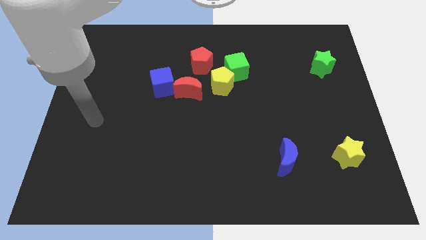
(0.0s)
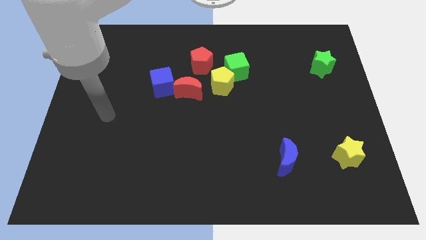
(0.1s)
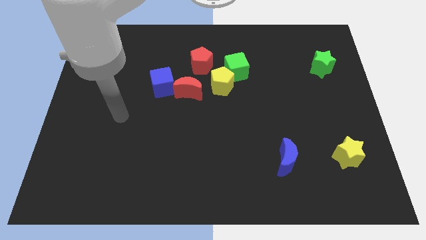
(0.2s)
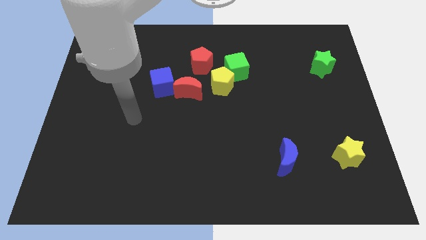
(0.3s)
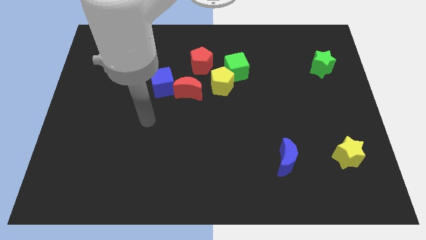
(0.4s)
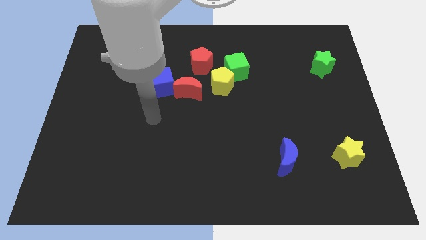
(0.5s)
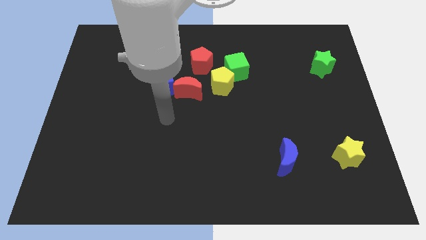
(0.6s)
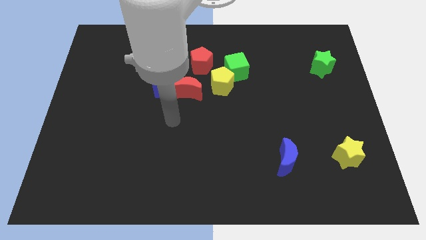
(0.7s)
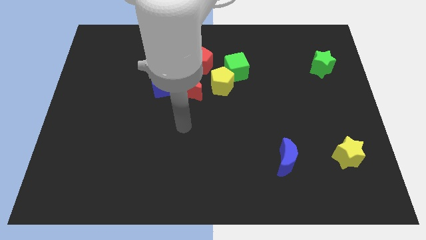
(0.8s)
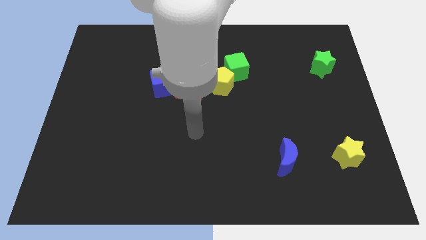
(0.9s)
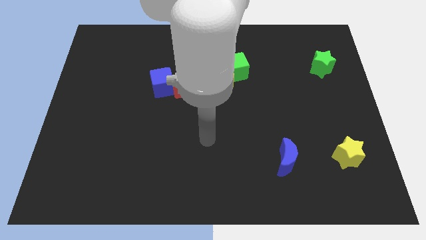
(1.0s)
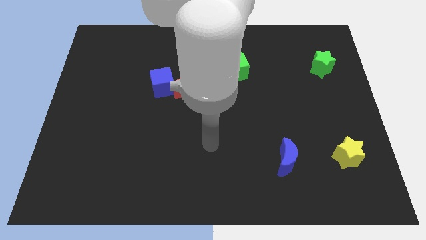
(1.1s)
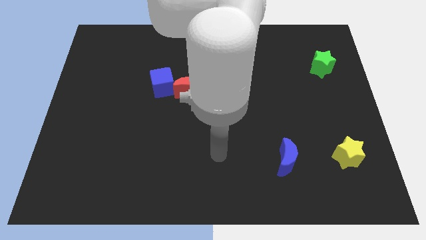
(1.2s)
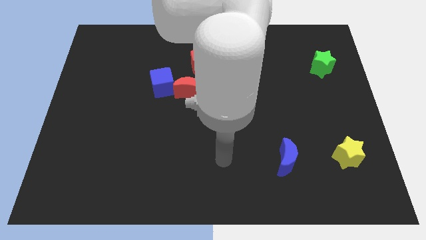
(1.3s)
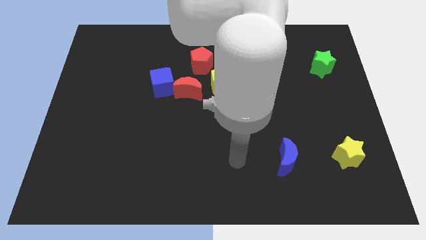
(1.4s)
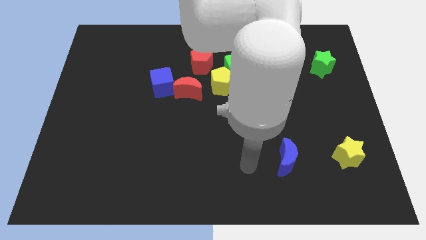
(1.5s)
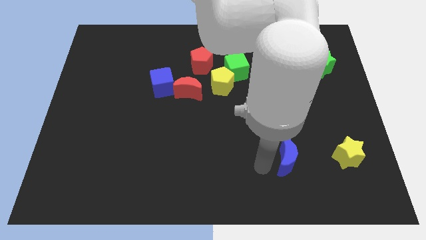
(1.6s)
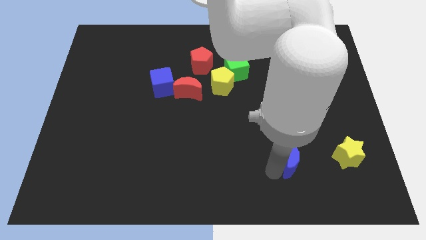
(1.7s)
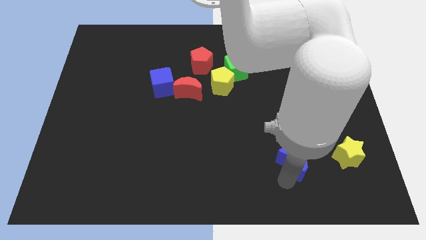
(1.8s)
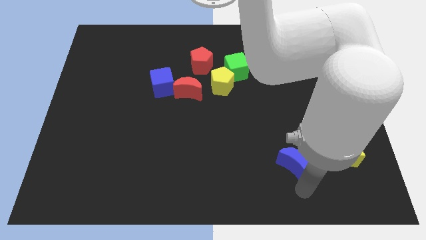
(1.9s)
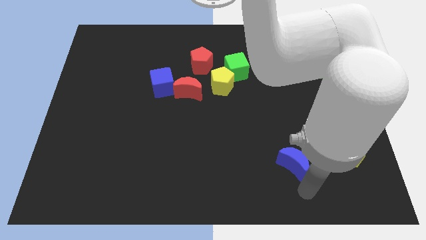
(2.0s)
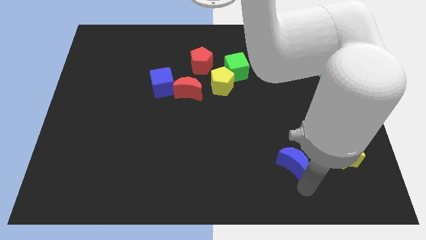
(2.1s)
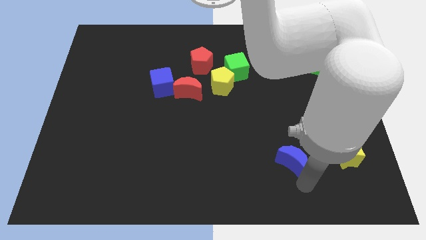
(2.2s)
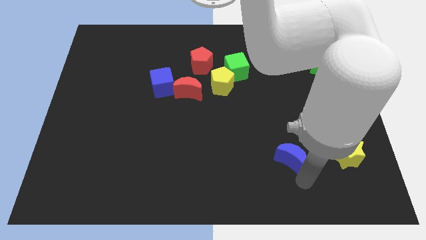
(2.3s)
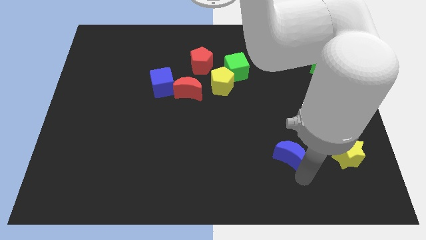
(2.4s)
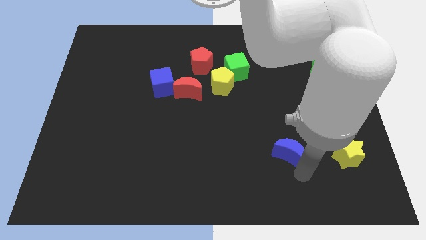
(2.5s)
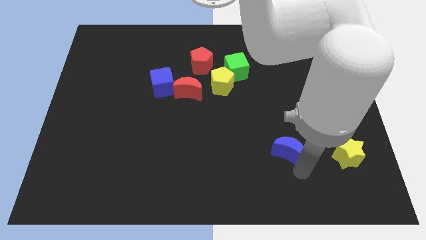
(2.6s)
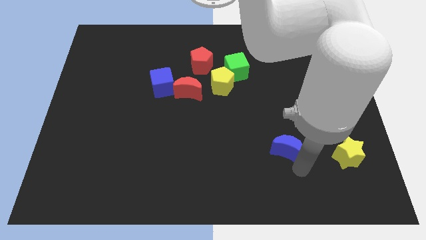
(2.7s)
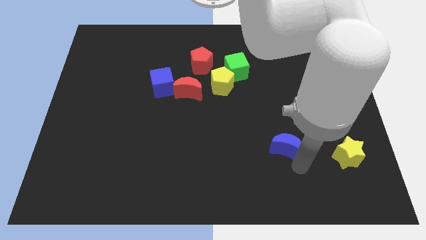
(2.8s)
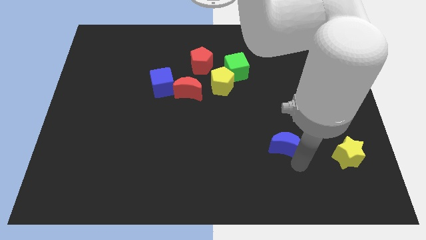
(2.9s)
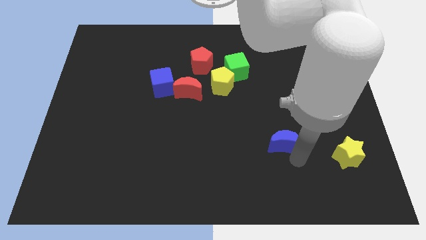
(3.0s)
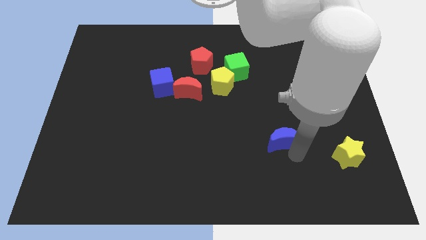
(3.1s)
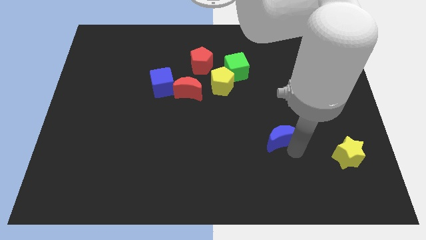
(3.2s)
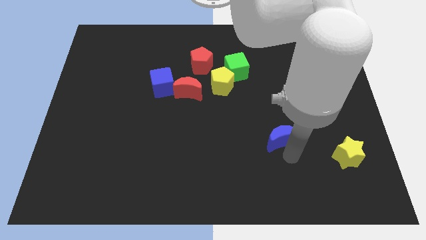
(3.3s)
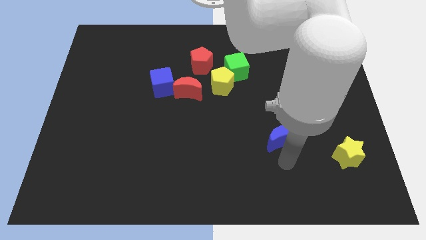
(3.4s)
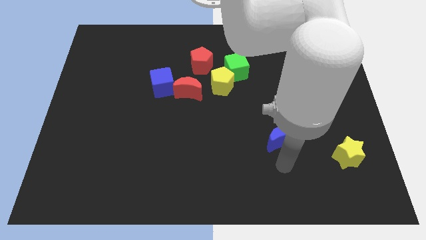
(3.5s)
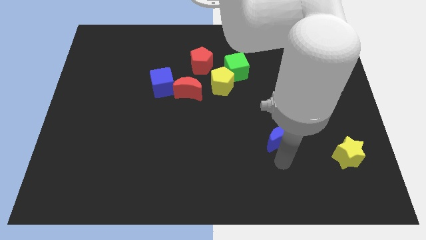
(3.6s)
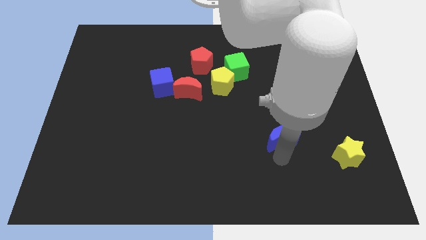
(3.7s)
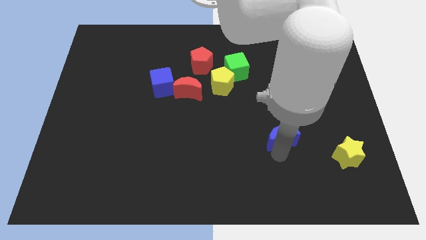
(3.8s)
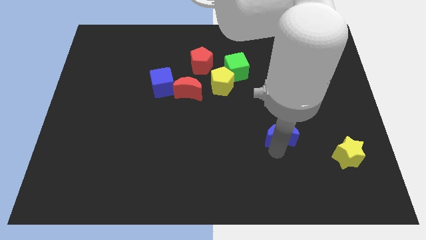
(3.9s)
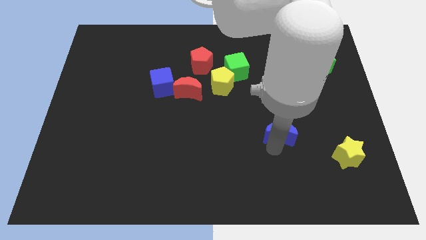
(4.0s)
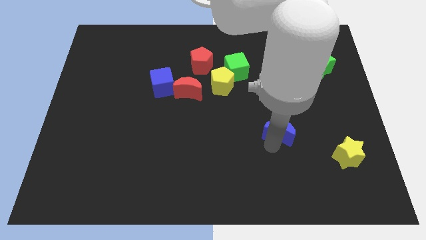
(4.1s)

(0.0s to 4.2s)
push the blue moon up a bit

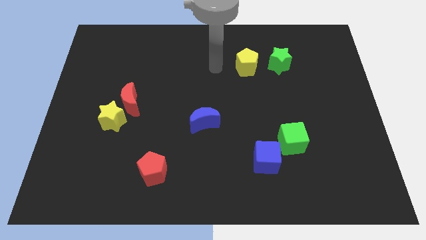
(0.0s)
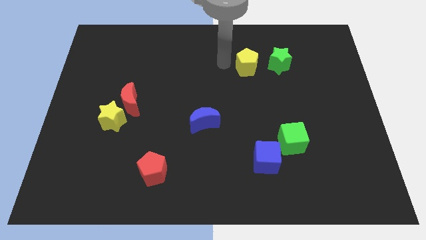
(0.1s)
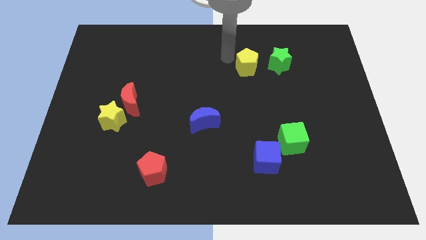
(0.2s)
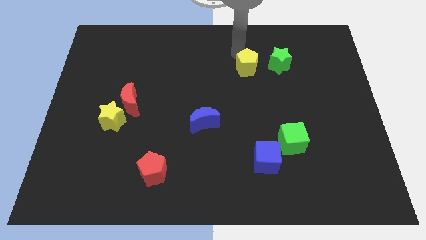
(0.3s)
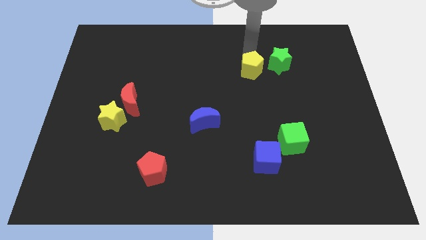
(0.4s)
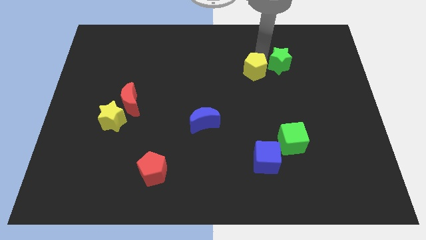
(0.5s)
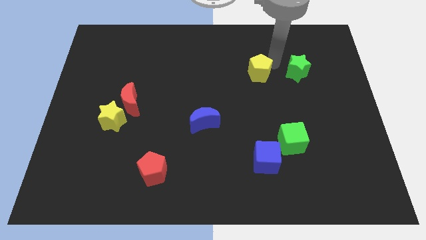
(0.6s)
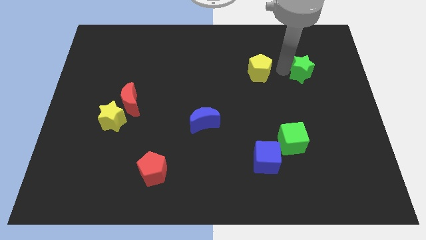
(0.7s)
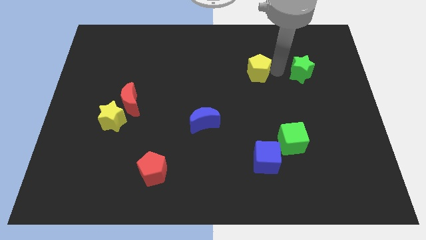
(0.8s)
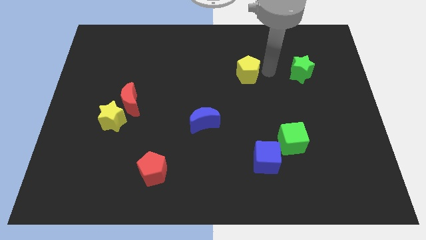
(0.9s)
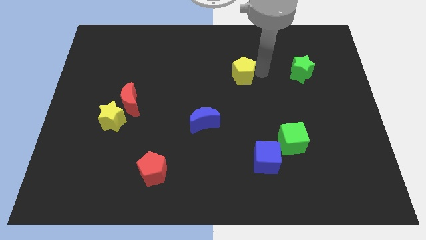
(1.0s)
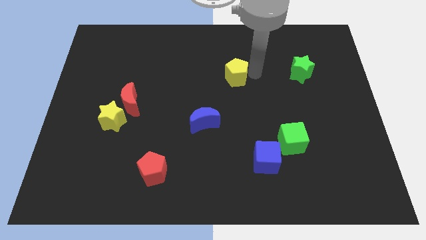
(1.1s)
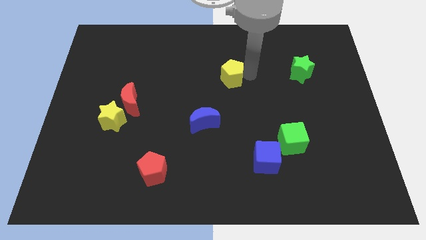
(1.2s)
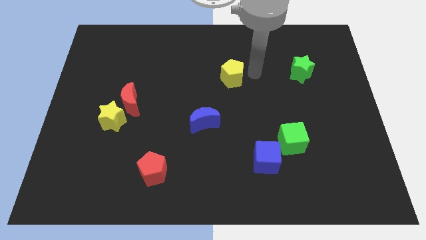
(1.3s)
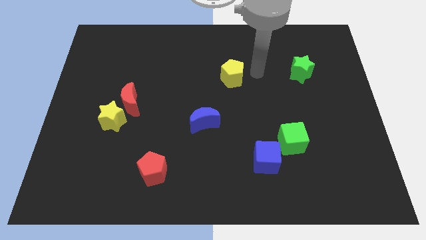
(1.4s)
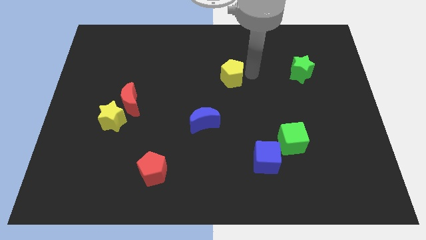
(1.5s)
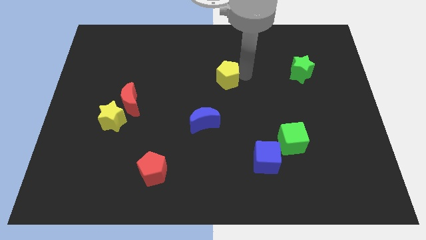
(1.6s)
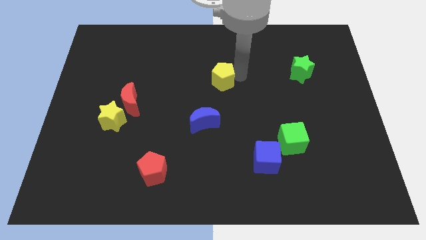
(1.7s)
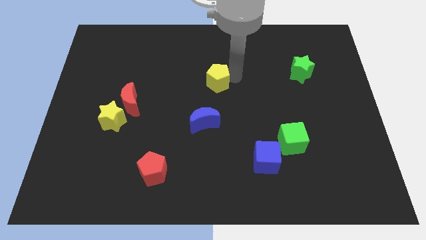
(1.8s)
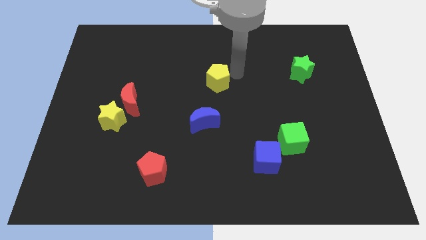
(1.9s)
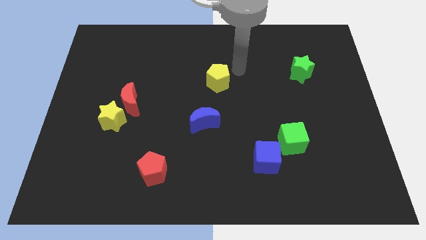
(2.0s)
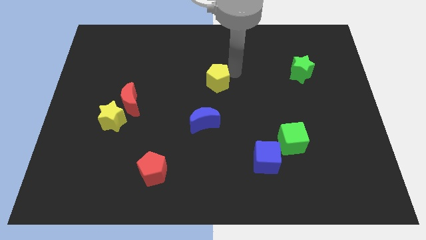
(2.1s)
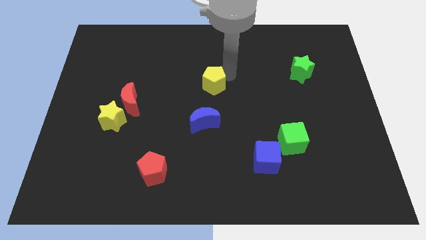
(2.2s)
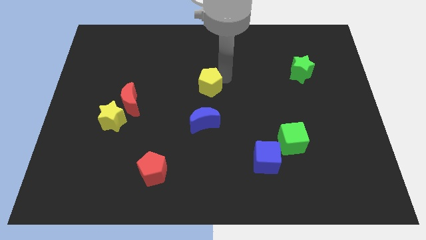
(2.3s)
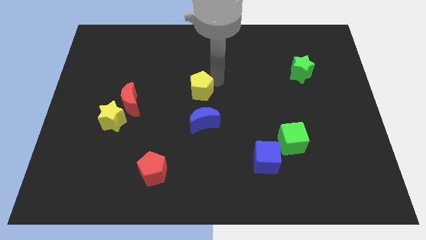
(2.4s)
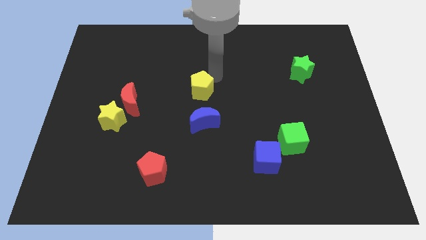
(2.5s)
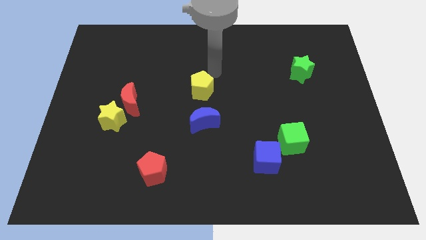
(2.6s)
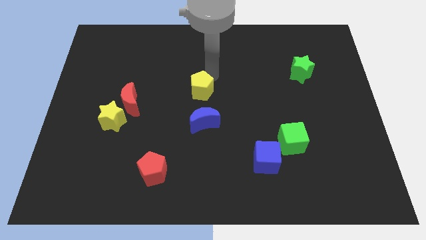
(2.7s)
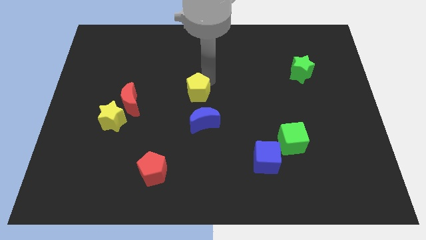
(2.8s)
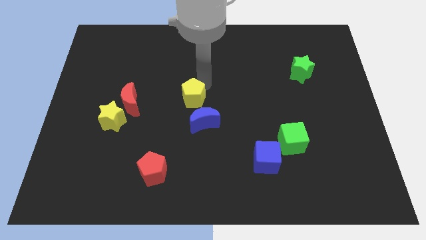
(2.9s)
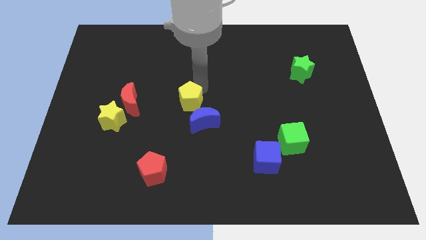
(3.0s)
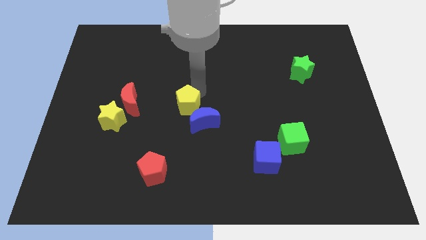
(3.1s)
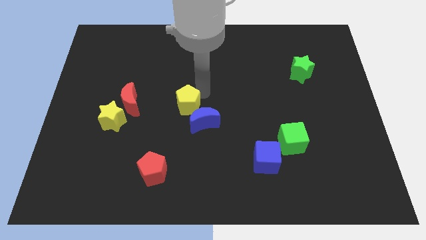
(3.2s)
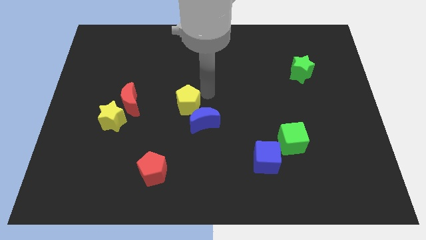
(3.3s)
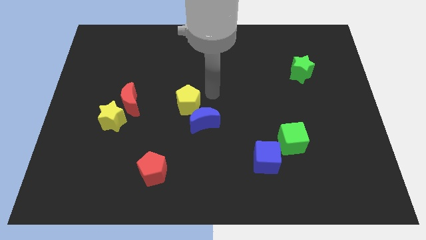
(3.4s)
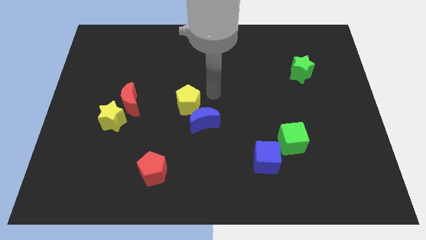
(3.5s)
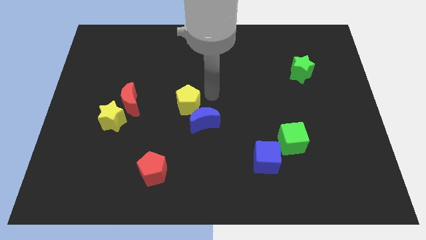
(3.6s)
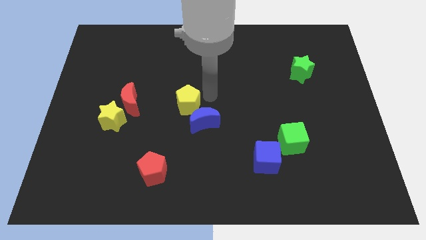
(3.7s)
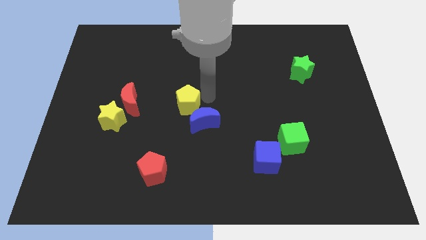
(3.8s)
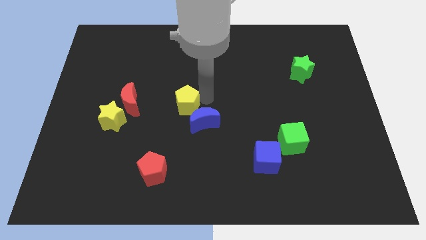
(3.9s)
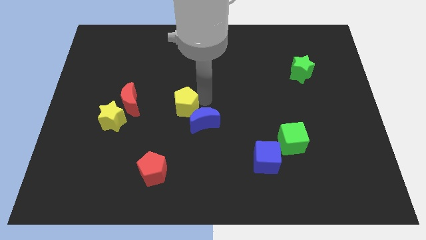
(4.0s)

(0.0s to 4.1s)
push the yellow pentagon diagonally down and to the left

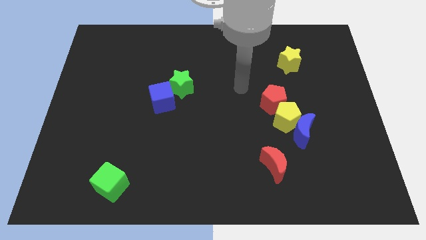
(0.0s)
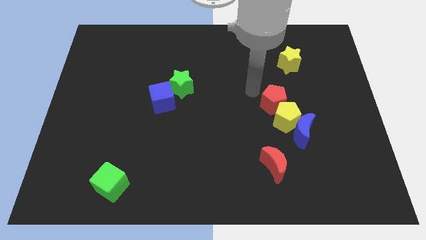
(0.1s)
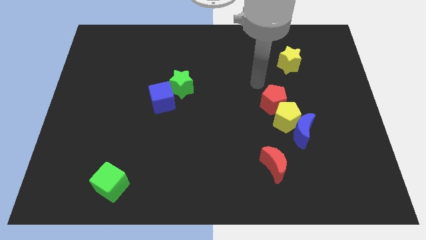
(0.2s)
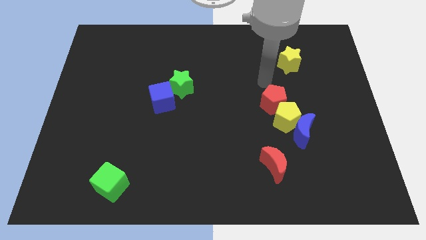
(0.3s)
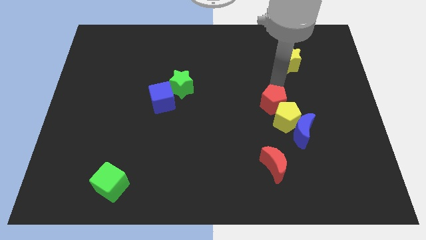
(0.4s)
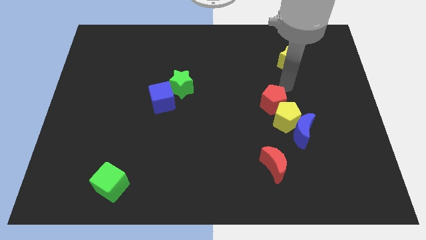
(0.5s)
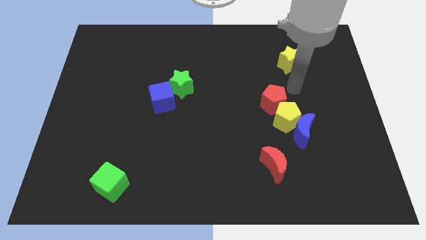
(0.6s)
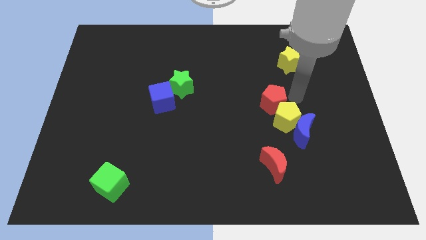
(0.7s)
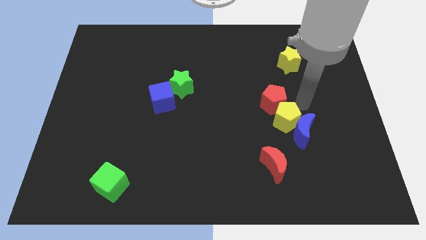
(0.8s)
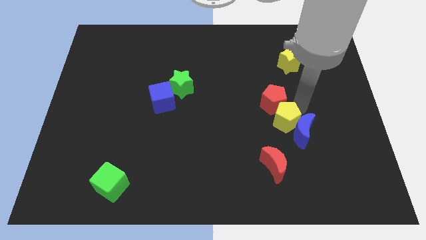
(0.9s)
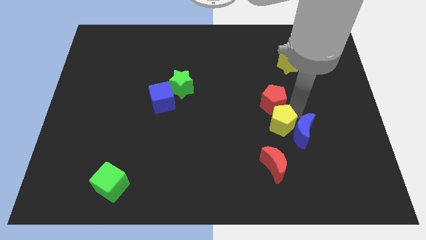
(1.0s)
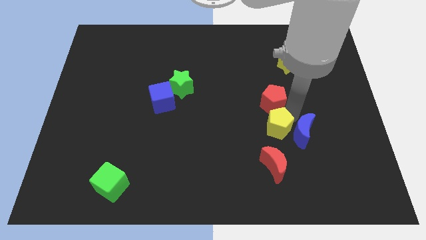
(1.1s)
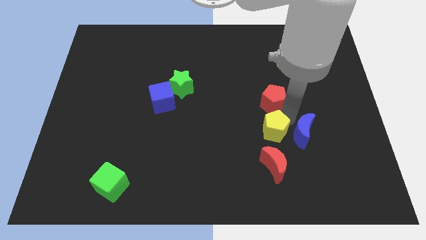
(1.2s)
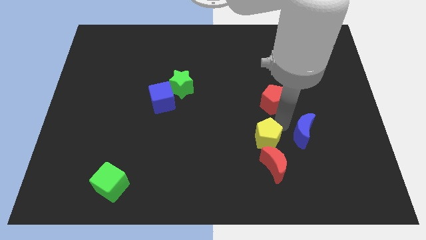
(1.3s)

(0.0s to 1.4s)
move the yellow pentagon down and left diagonally a little bit
